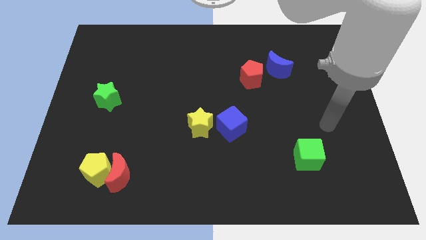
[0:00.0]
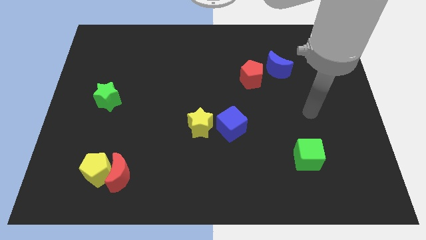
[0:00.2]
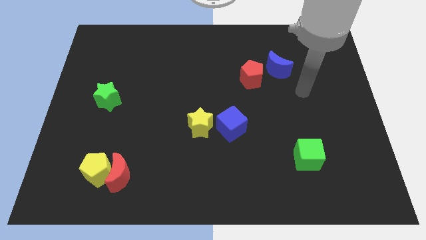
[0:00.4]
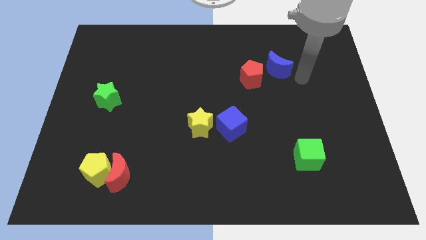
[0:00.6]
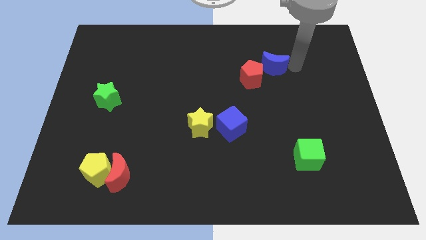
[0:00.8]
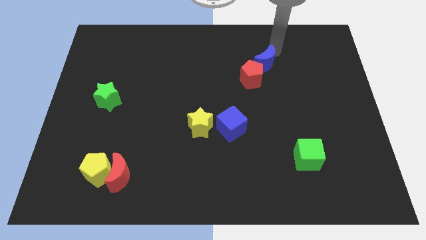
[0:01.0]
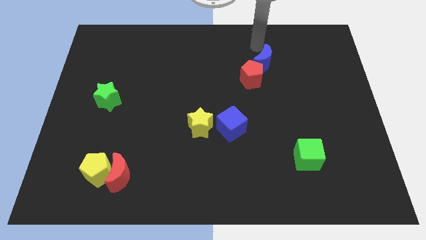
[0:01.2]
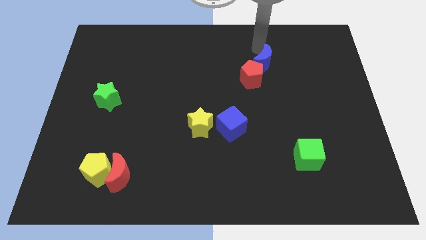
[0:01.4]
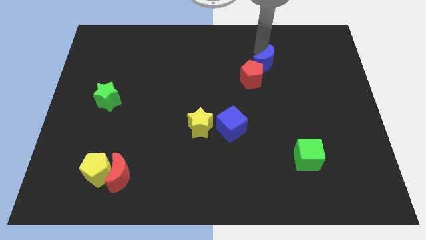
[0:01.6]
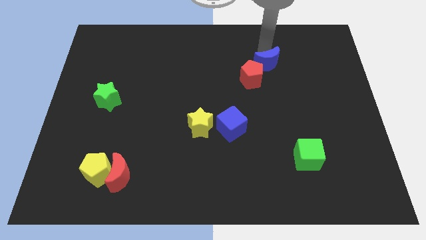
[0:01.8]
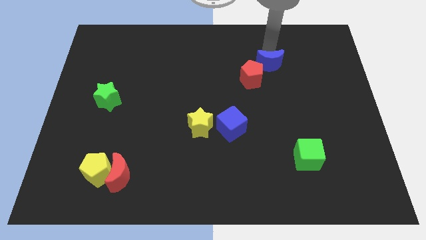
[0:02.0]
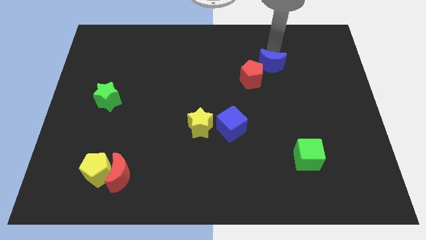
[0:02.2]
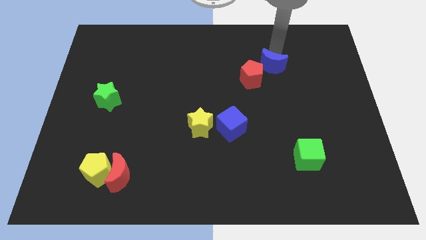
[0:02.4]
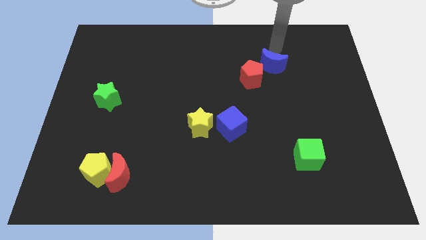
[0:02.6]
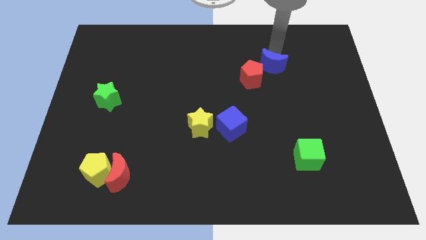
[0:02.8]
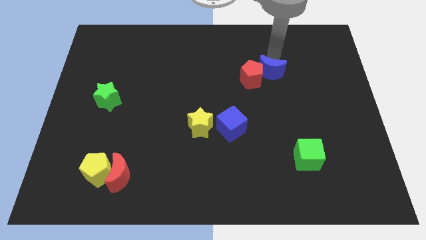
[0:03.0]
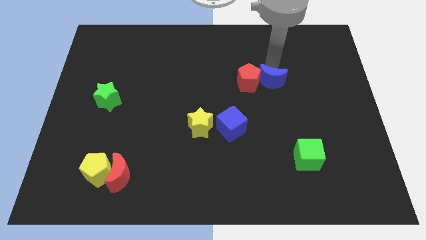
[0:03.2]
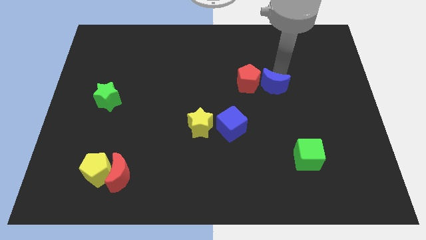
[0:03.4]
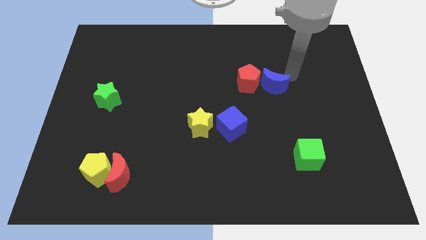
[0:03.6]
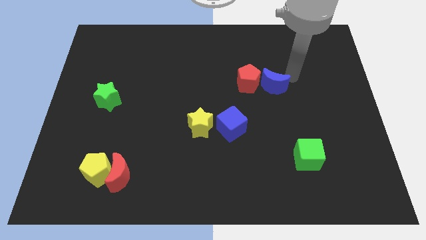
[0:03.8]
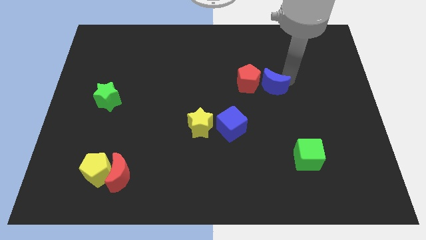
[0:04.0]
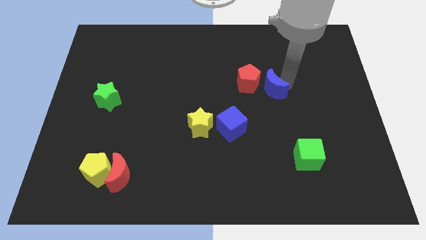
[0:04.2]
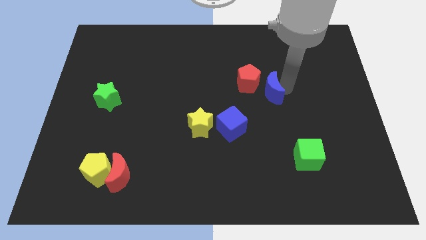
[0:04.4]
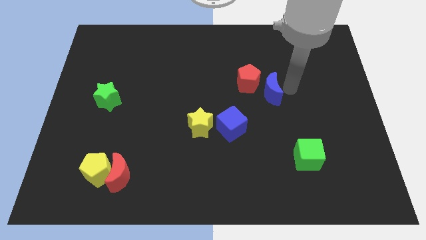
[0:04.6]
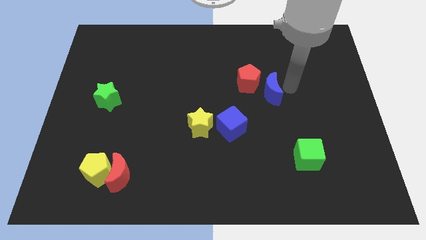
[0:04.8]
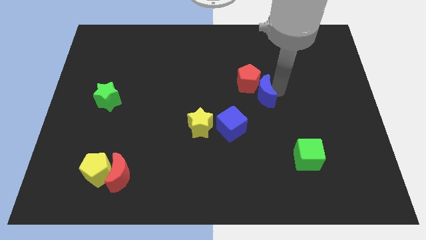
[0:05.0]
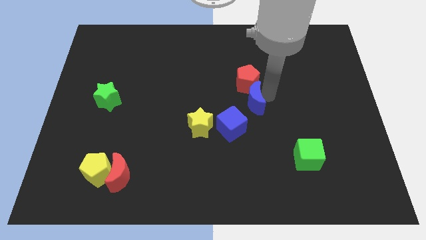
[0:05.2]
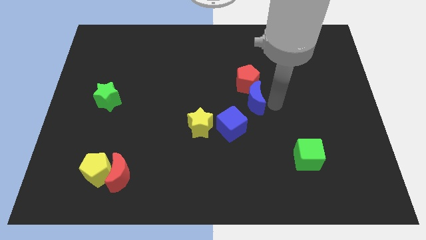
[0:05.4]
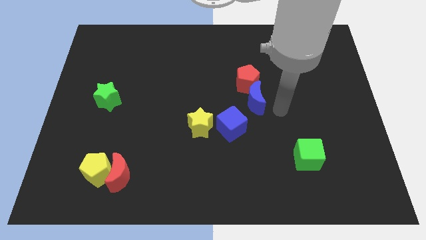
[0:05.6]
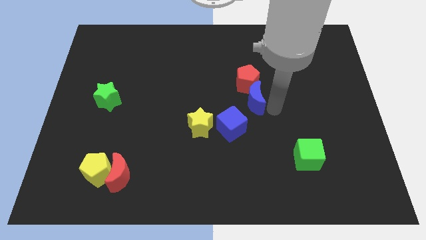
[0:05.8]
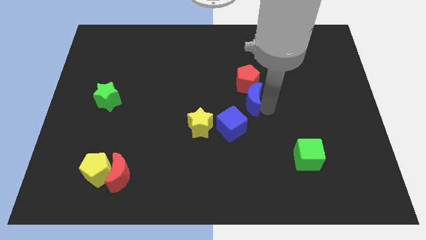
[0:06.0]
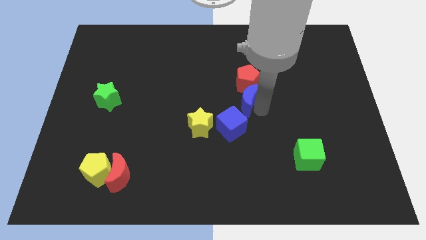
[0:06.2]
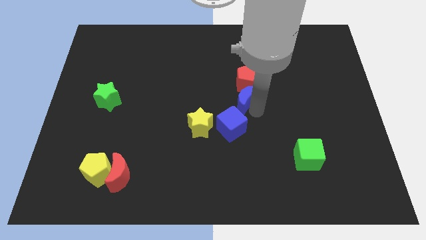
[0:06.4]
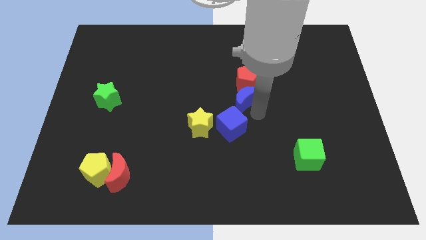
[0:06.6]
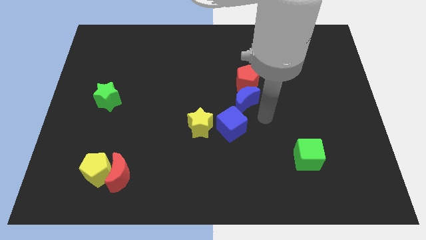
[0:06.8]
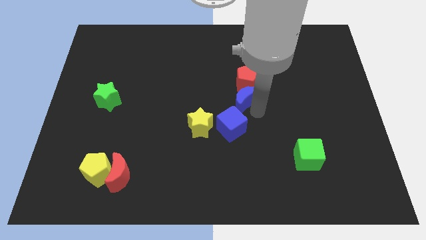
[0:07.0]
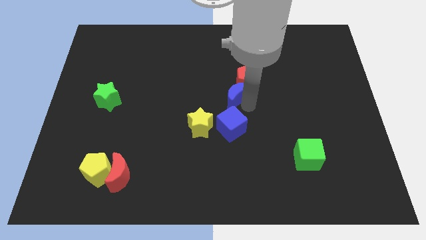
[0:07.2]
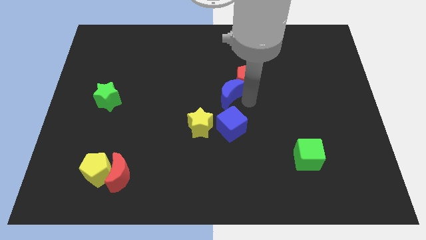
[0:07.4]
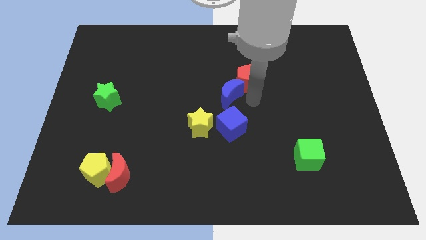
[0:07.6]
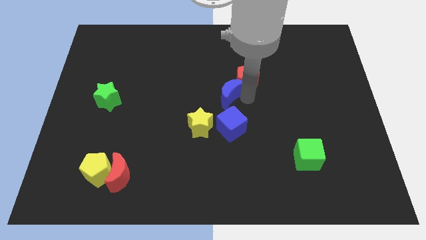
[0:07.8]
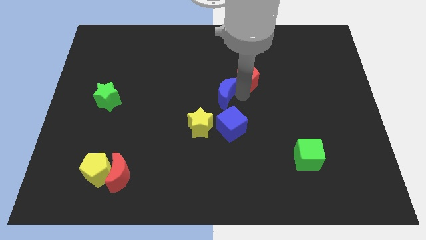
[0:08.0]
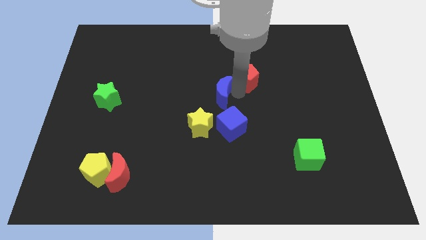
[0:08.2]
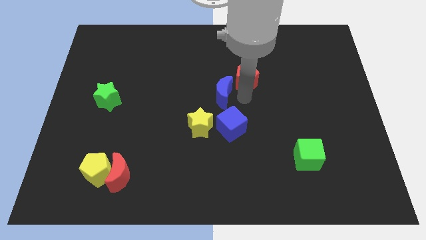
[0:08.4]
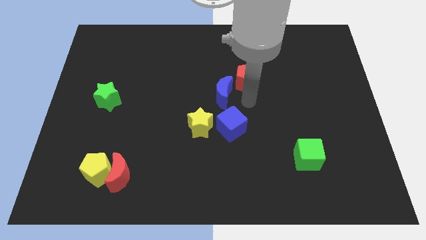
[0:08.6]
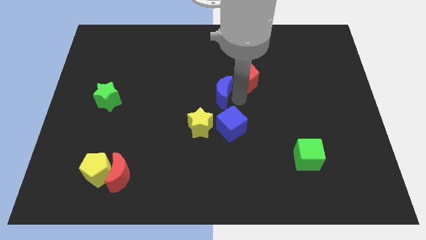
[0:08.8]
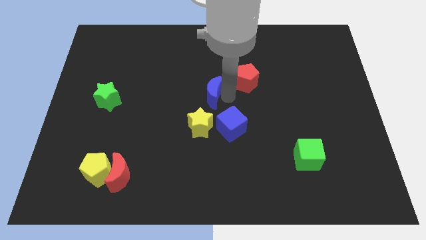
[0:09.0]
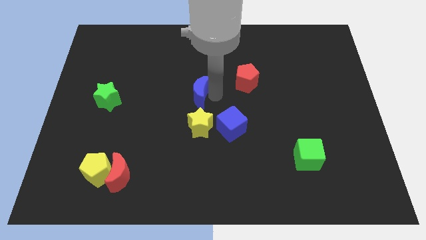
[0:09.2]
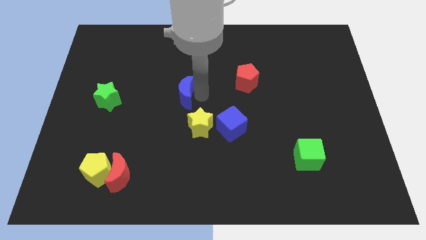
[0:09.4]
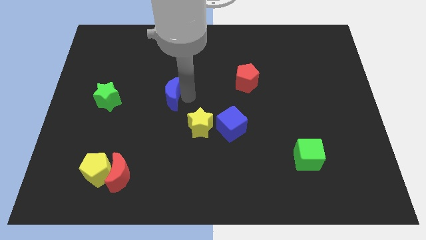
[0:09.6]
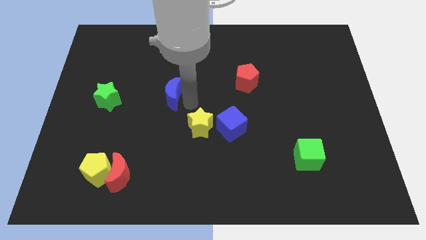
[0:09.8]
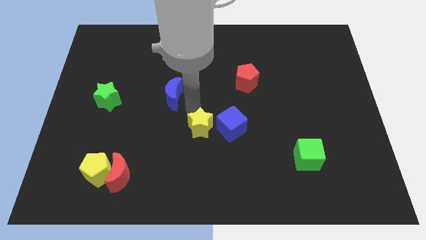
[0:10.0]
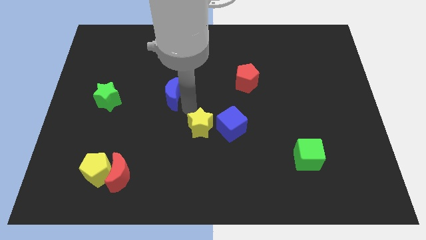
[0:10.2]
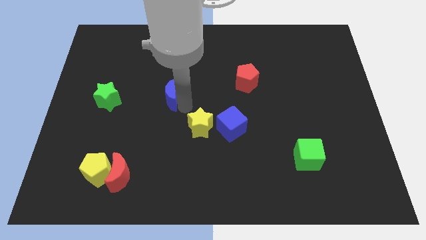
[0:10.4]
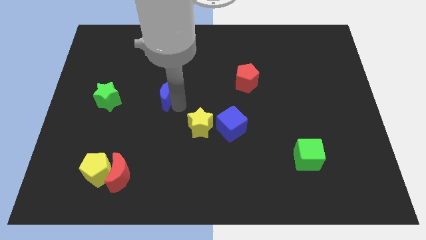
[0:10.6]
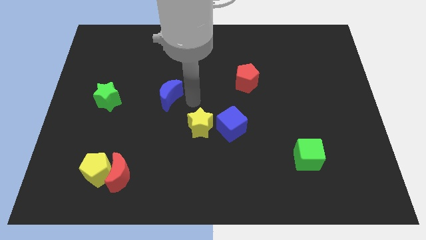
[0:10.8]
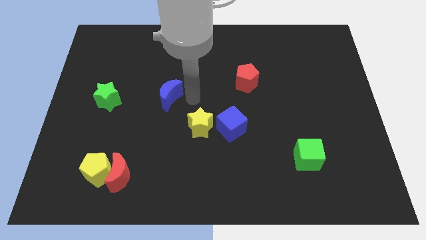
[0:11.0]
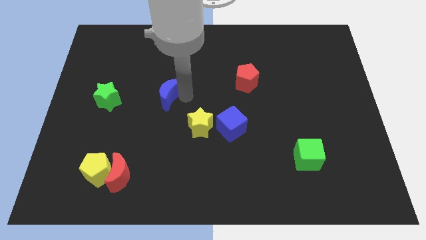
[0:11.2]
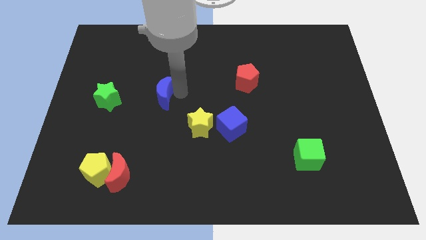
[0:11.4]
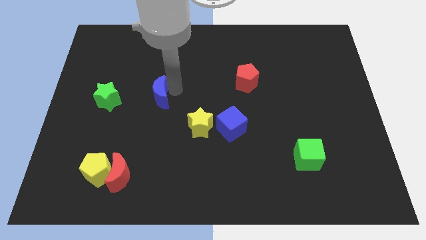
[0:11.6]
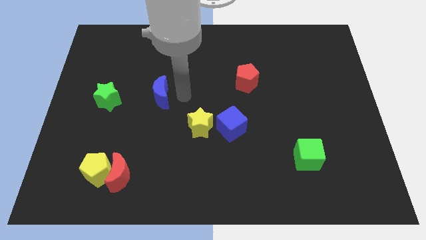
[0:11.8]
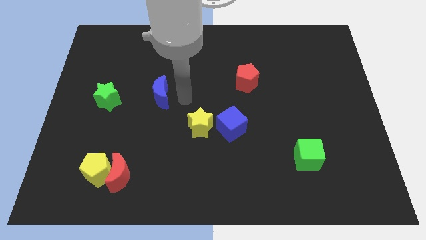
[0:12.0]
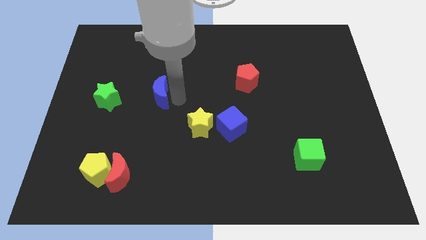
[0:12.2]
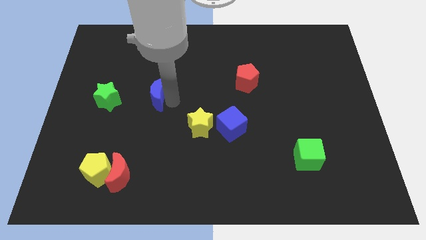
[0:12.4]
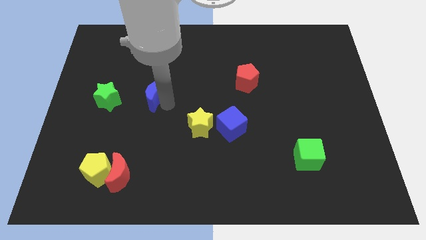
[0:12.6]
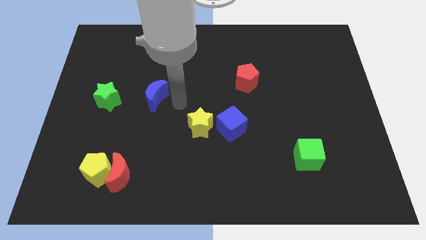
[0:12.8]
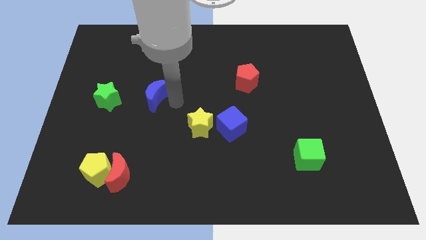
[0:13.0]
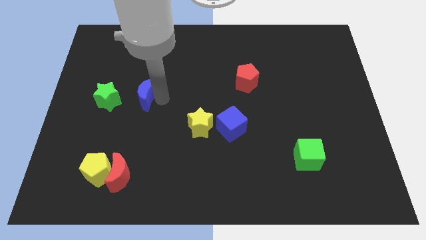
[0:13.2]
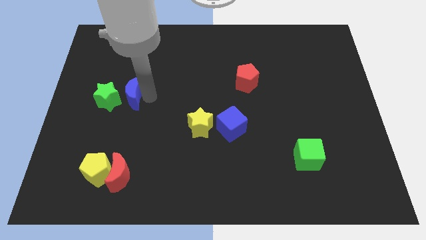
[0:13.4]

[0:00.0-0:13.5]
move the blue moon next to the green star

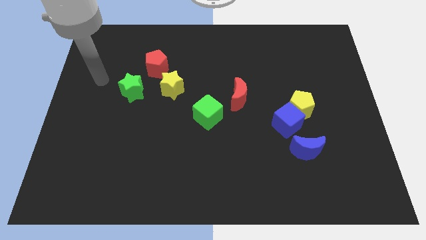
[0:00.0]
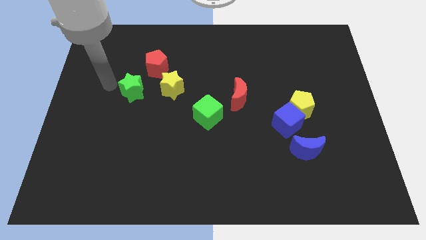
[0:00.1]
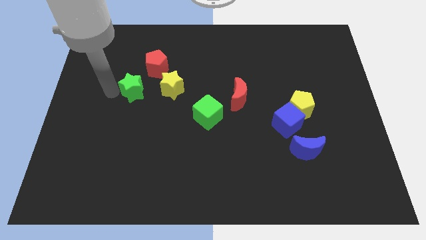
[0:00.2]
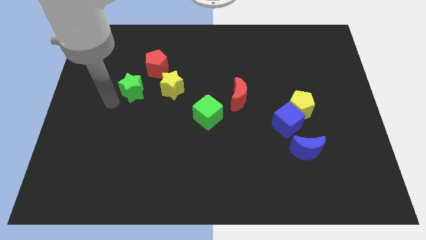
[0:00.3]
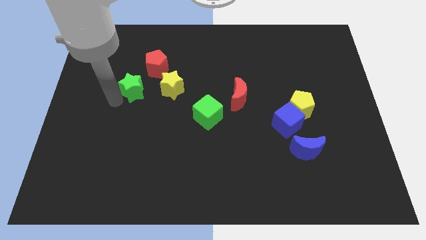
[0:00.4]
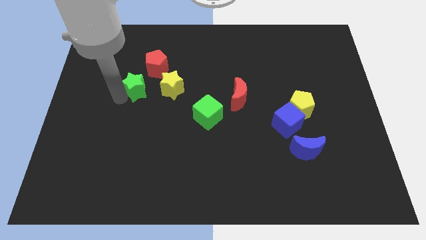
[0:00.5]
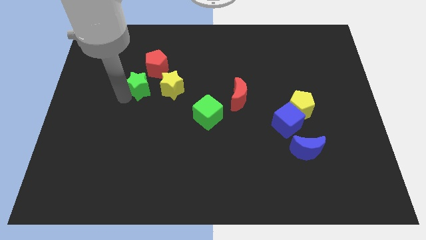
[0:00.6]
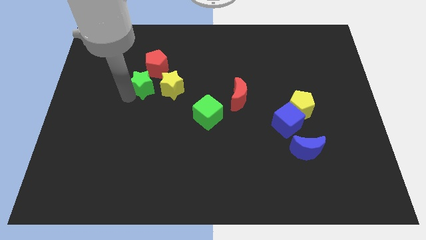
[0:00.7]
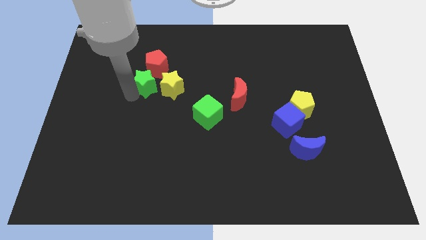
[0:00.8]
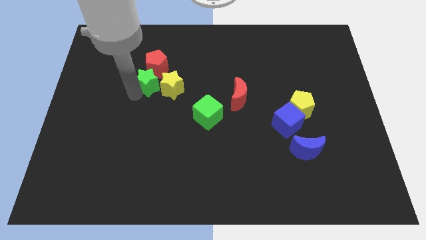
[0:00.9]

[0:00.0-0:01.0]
slide the green star to the red pentagon

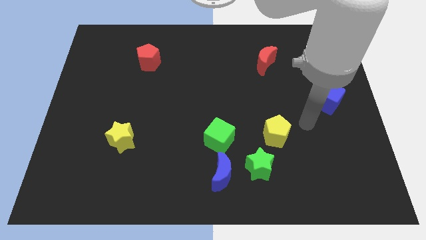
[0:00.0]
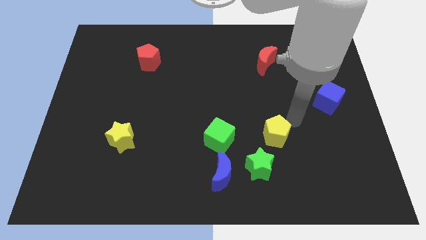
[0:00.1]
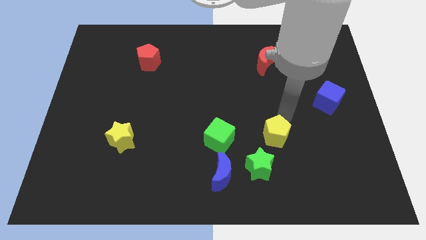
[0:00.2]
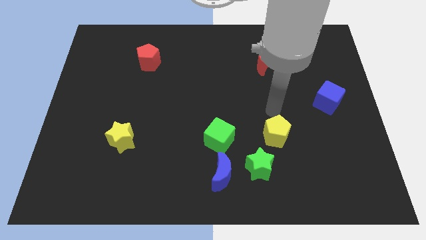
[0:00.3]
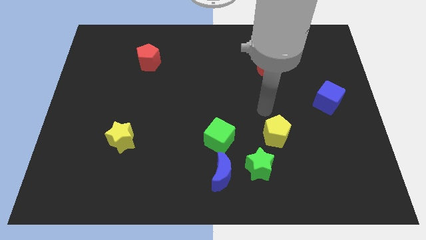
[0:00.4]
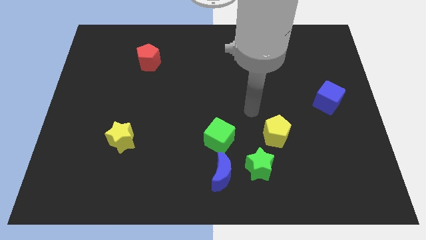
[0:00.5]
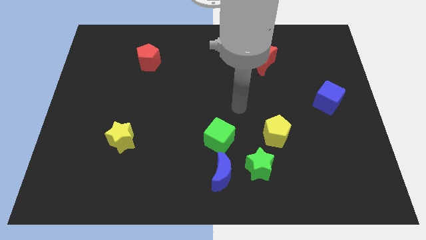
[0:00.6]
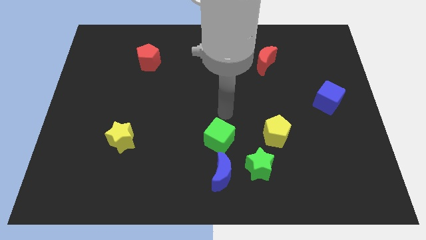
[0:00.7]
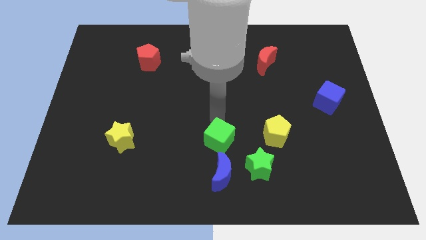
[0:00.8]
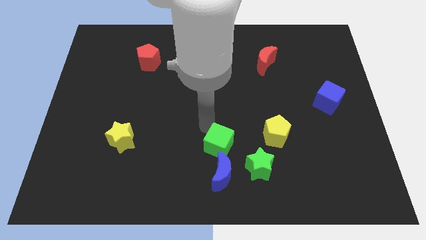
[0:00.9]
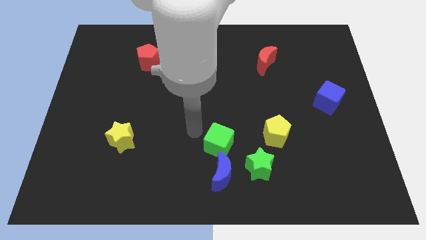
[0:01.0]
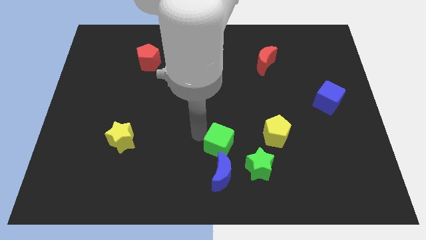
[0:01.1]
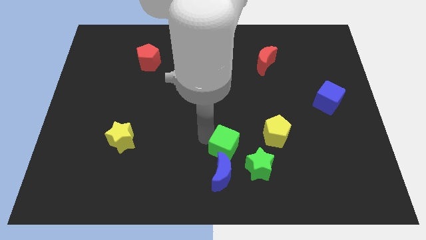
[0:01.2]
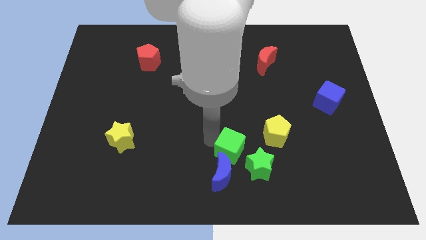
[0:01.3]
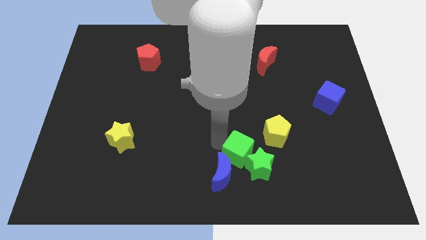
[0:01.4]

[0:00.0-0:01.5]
move the green cube to the green star
